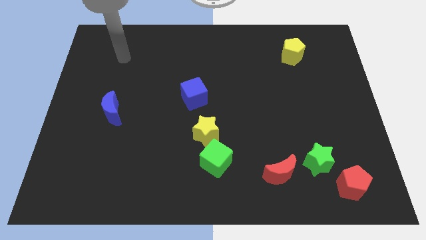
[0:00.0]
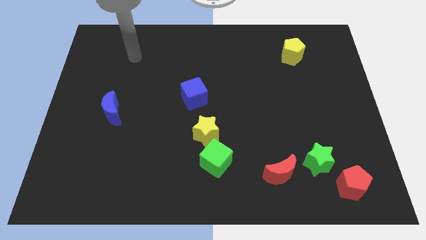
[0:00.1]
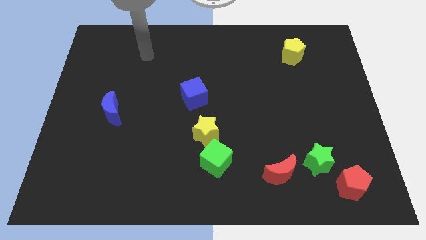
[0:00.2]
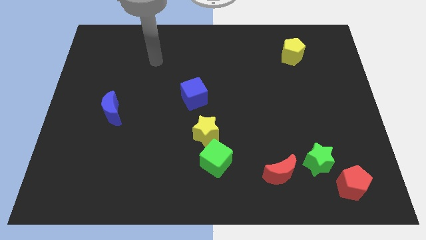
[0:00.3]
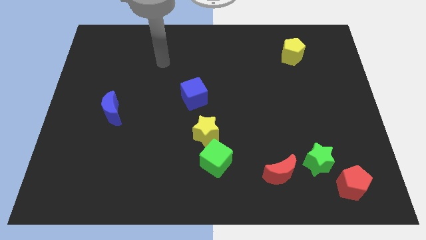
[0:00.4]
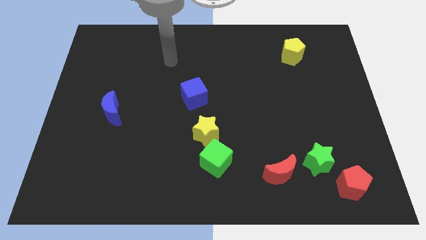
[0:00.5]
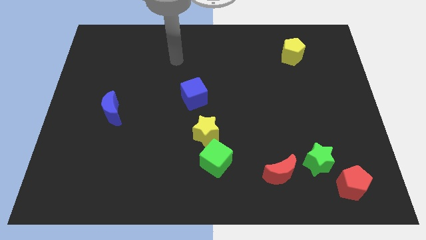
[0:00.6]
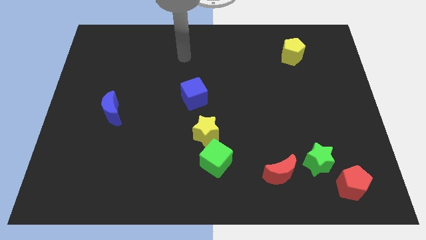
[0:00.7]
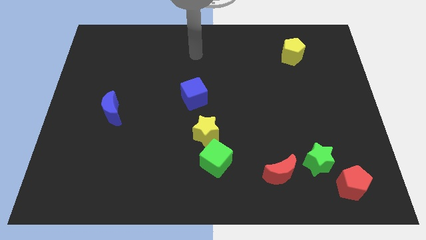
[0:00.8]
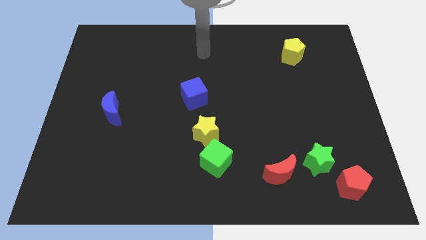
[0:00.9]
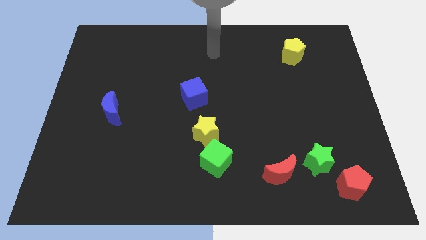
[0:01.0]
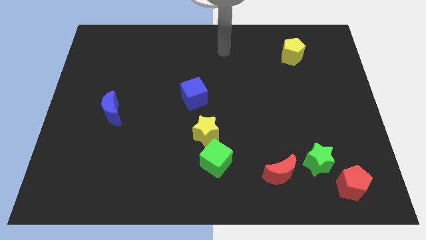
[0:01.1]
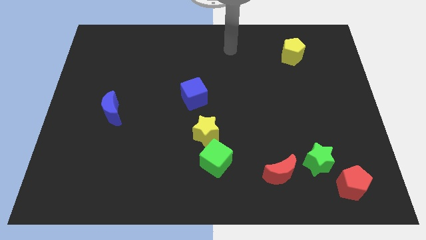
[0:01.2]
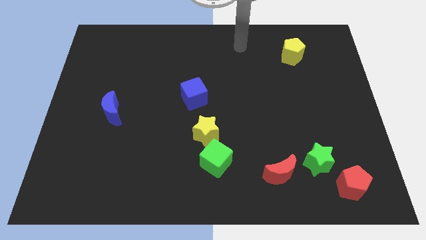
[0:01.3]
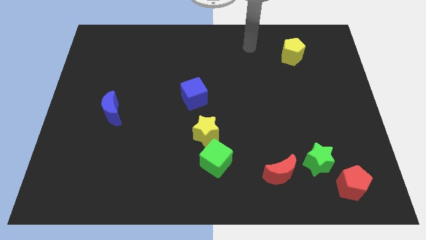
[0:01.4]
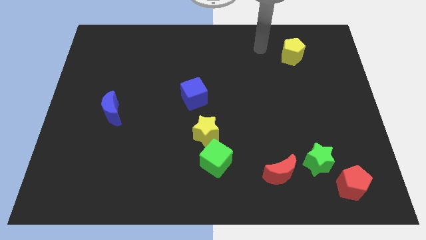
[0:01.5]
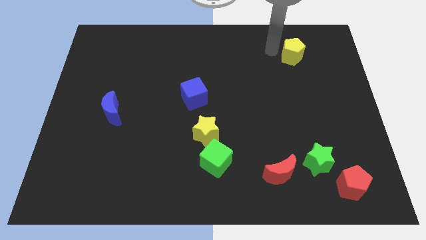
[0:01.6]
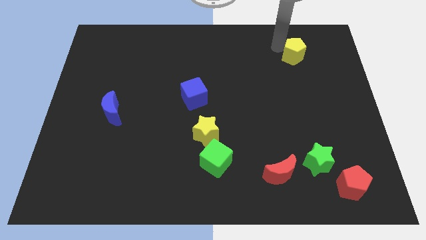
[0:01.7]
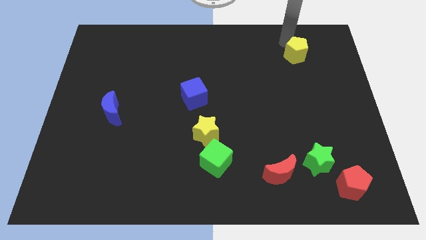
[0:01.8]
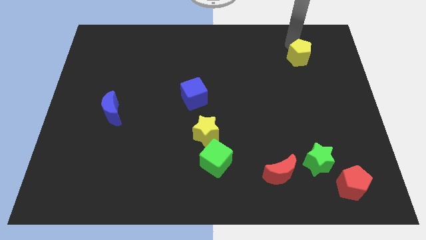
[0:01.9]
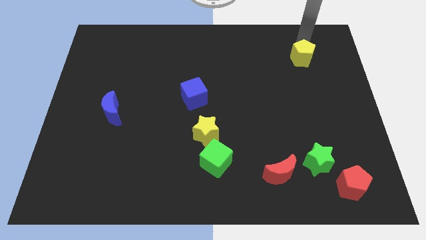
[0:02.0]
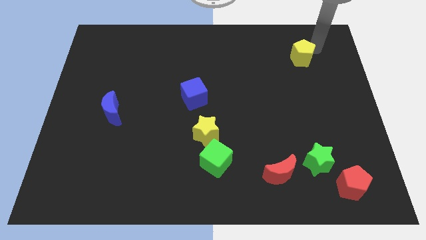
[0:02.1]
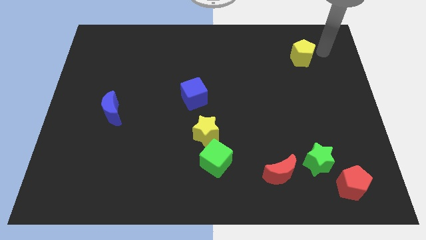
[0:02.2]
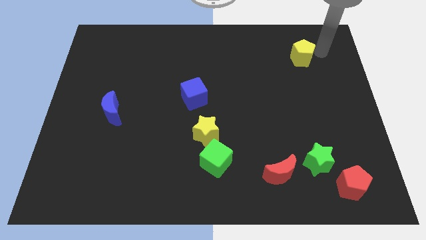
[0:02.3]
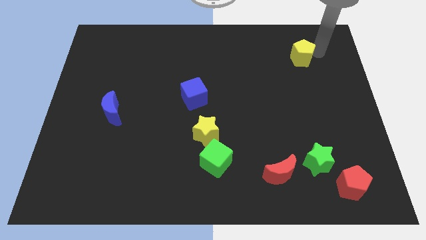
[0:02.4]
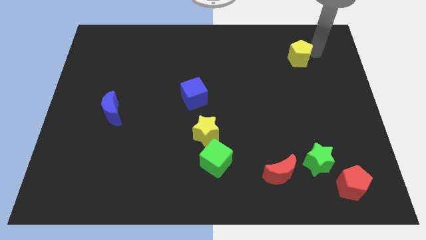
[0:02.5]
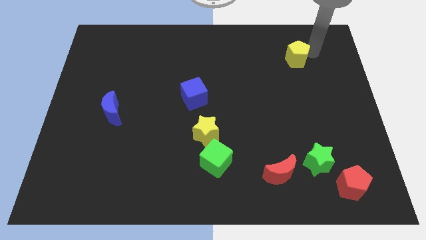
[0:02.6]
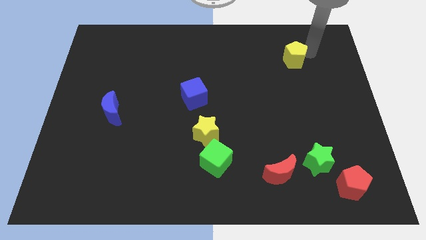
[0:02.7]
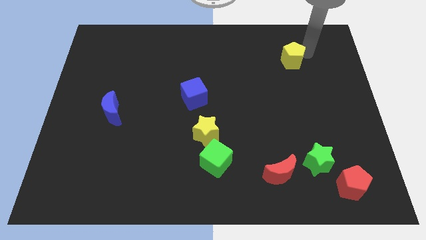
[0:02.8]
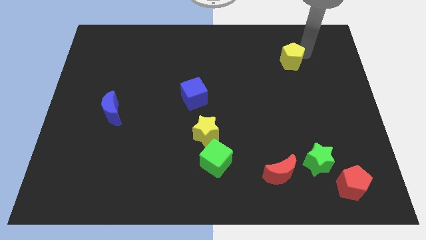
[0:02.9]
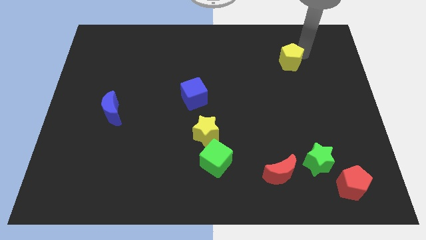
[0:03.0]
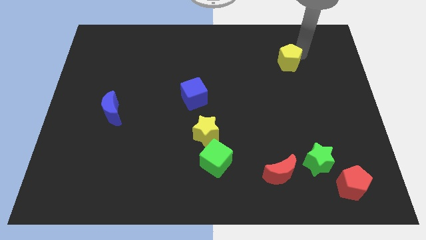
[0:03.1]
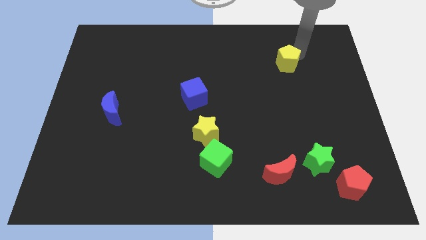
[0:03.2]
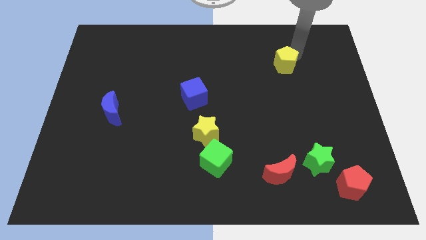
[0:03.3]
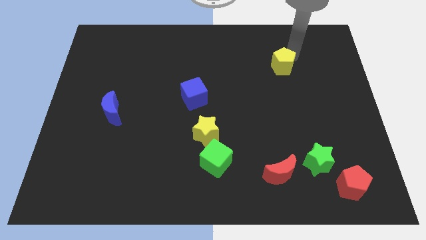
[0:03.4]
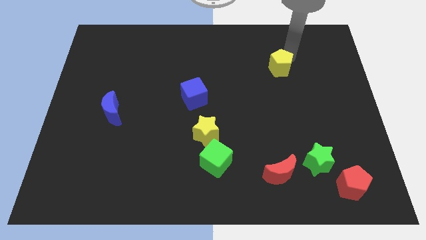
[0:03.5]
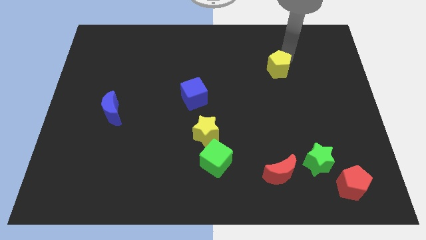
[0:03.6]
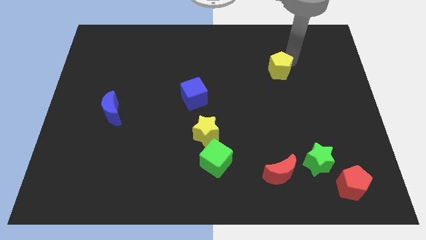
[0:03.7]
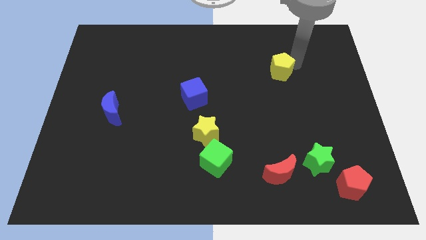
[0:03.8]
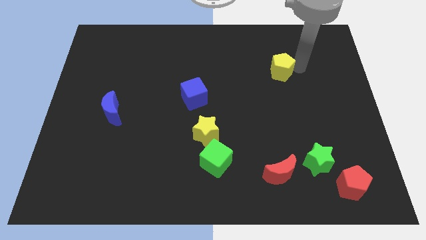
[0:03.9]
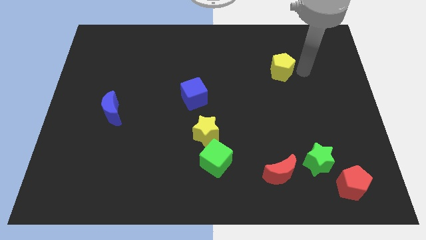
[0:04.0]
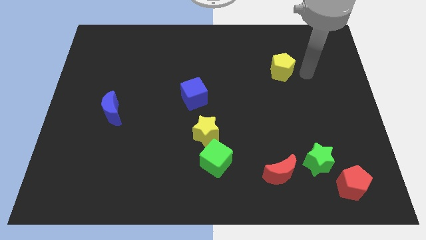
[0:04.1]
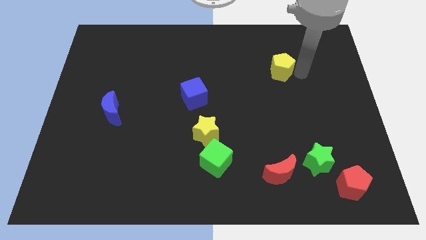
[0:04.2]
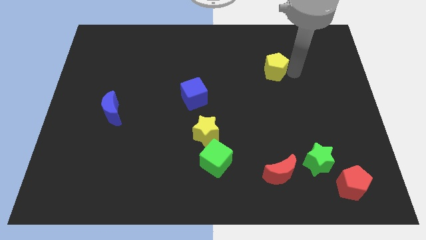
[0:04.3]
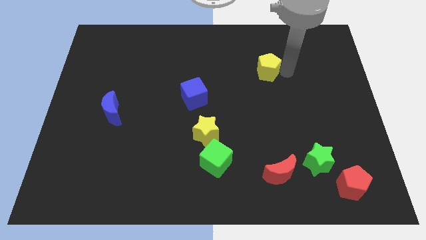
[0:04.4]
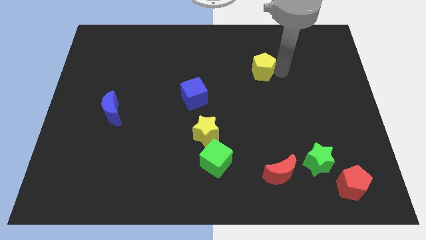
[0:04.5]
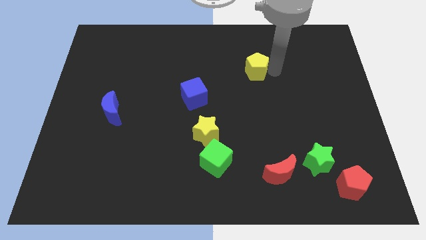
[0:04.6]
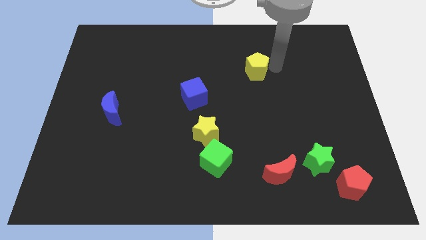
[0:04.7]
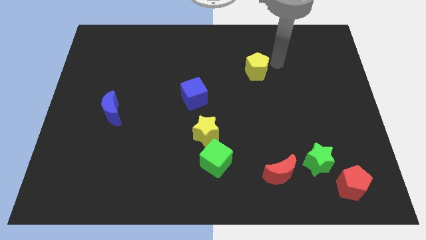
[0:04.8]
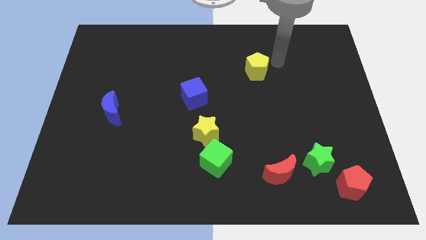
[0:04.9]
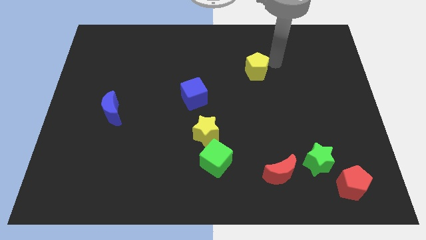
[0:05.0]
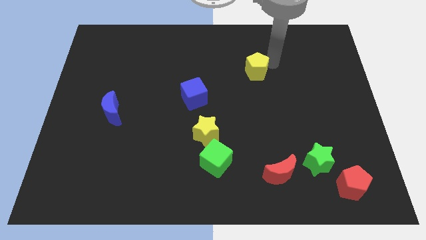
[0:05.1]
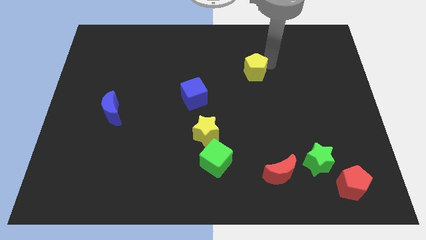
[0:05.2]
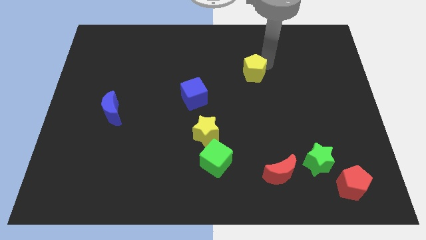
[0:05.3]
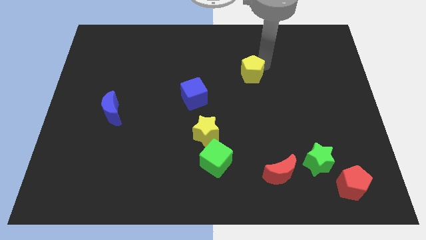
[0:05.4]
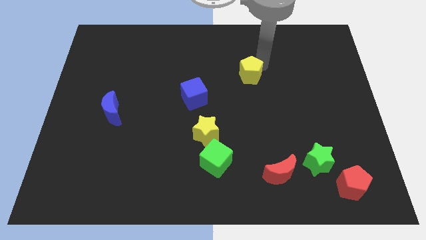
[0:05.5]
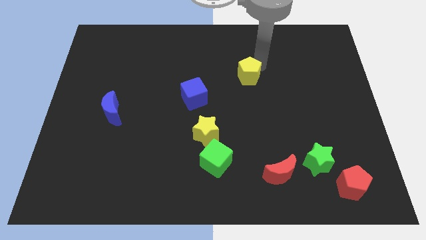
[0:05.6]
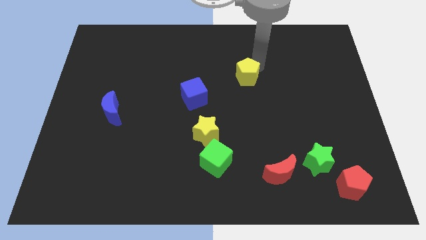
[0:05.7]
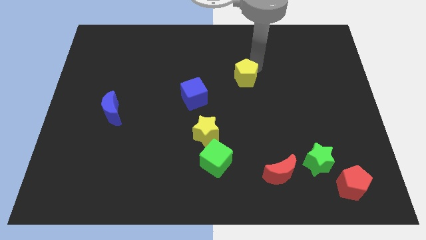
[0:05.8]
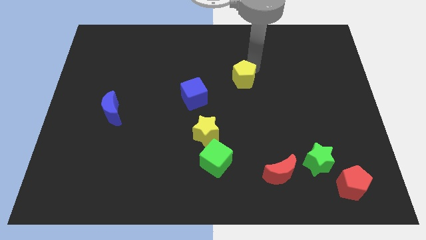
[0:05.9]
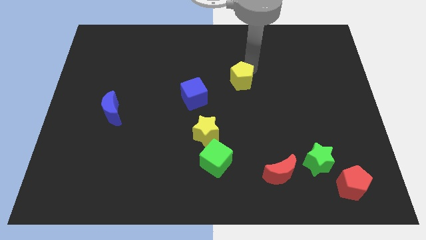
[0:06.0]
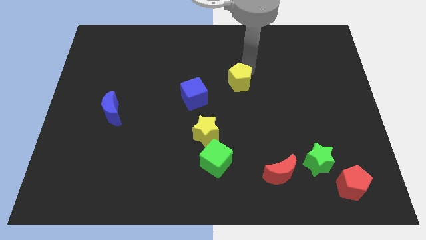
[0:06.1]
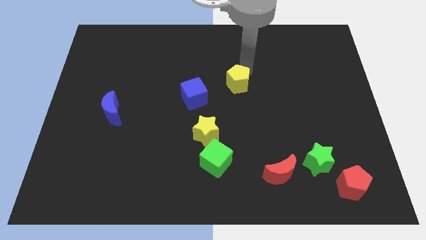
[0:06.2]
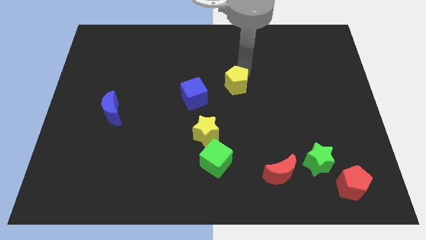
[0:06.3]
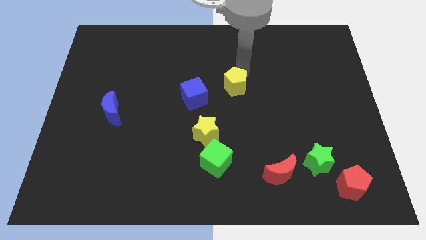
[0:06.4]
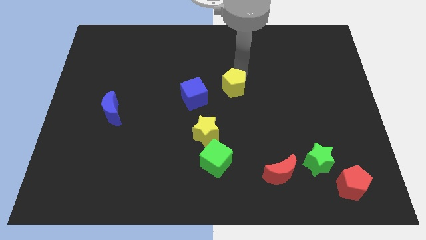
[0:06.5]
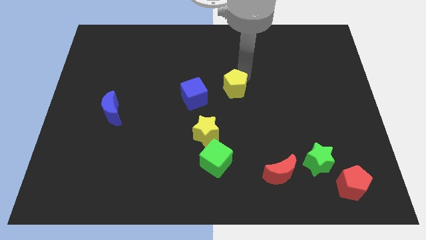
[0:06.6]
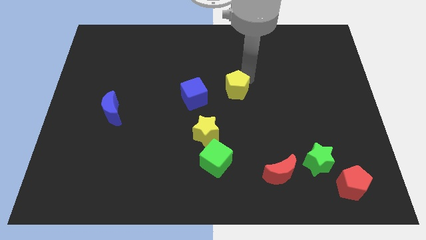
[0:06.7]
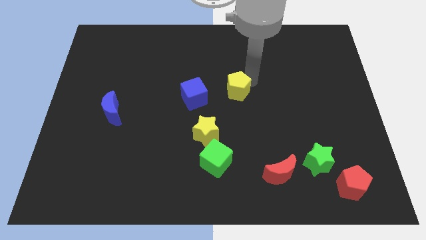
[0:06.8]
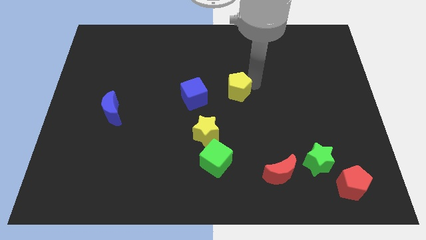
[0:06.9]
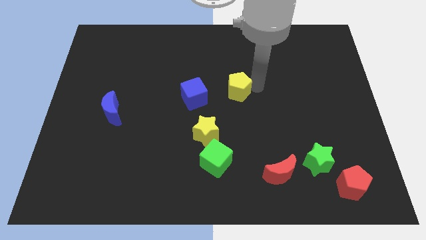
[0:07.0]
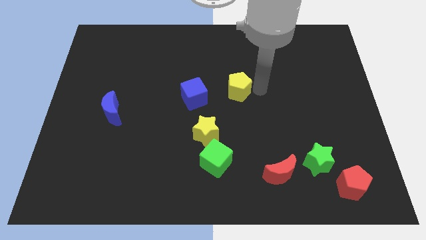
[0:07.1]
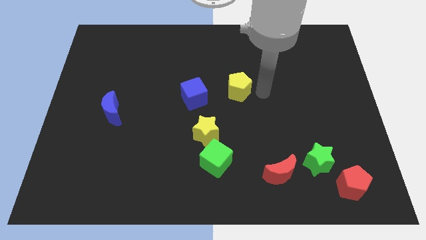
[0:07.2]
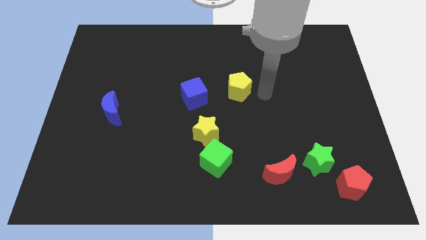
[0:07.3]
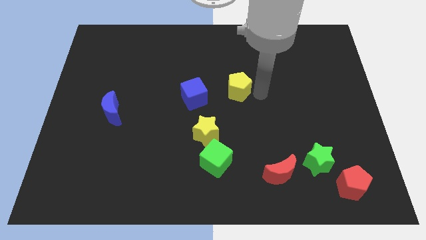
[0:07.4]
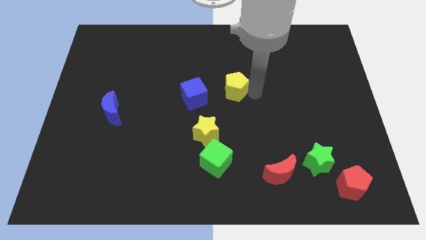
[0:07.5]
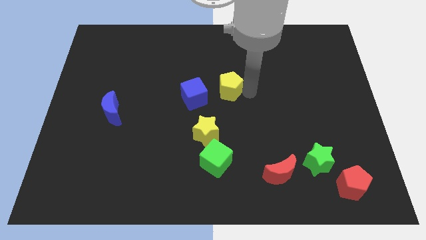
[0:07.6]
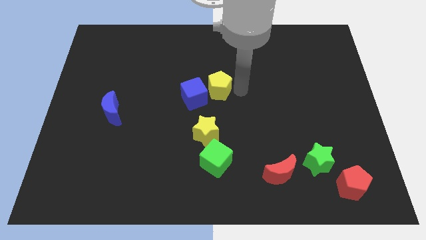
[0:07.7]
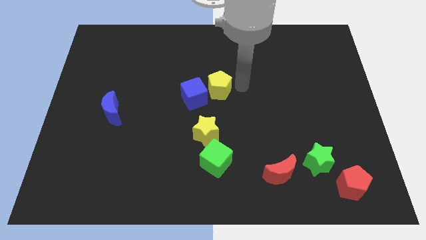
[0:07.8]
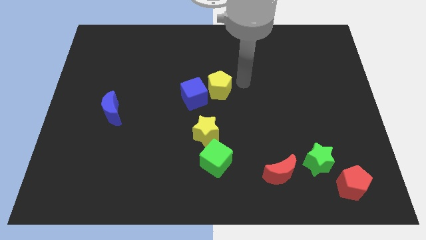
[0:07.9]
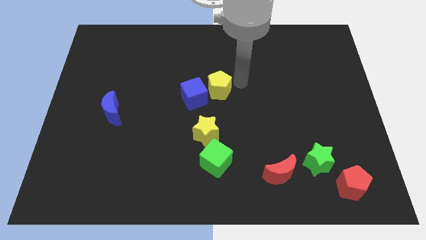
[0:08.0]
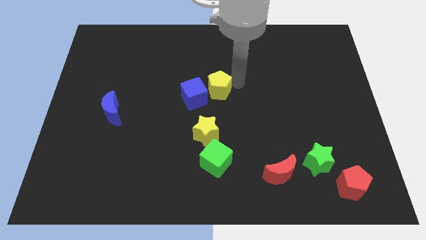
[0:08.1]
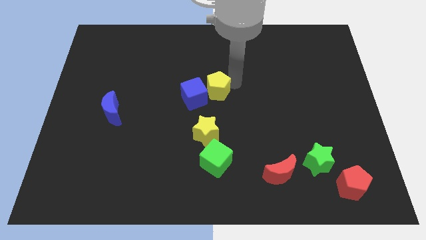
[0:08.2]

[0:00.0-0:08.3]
slide the yellow pentagon next to the blue cube
